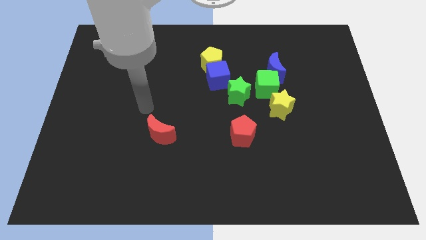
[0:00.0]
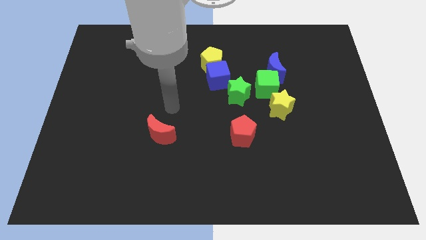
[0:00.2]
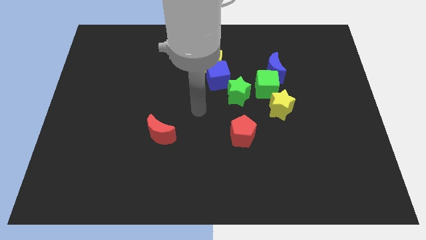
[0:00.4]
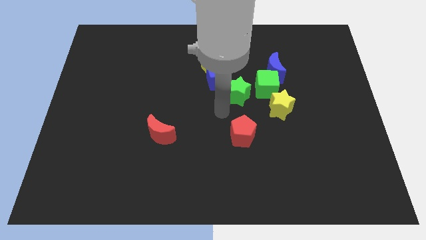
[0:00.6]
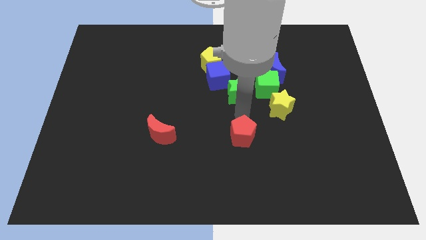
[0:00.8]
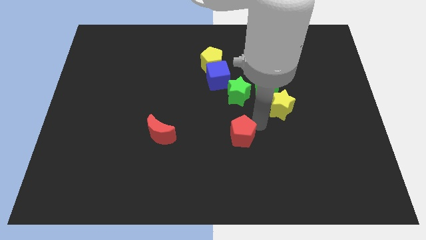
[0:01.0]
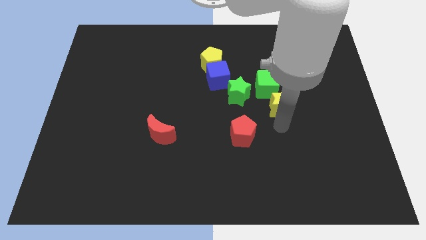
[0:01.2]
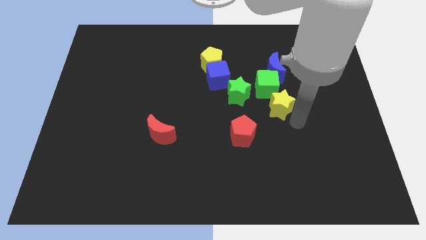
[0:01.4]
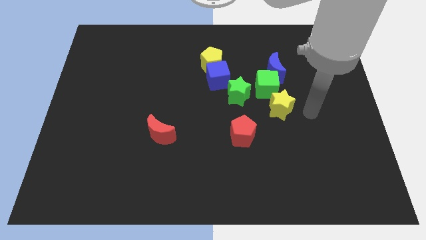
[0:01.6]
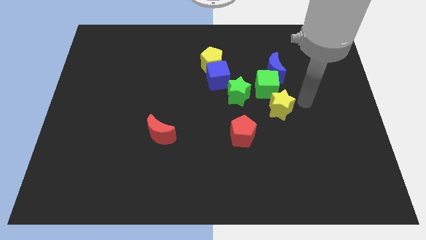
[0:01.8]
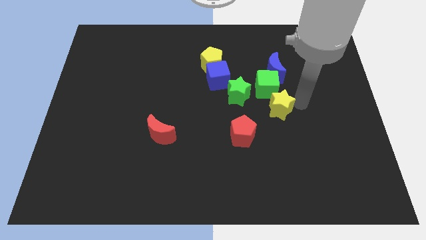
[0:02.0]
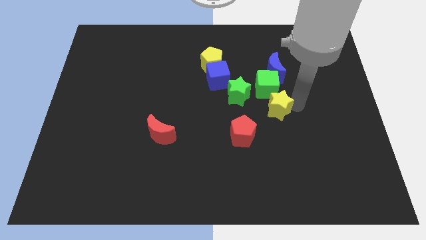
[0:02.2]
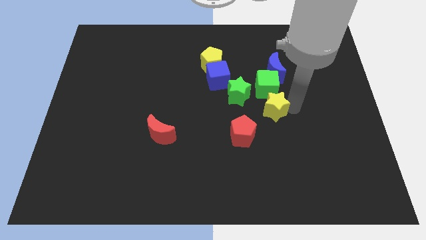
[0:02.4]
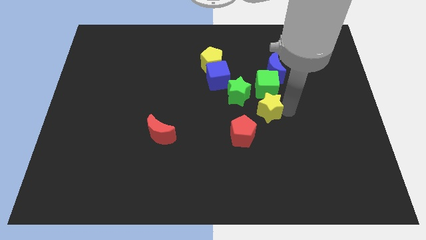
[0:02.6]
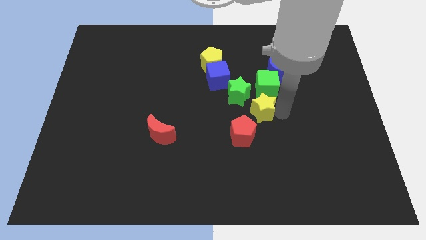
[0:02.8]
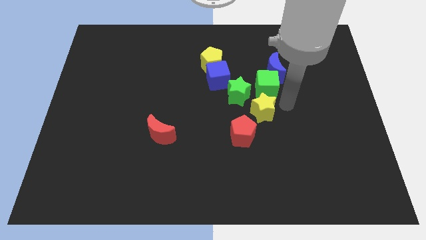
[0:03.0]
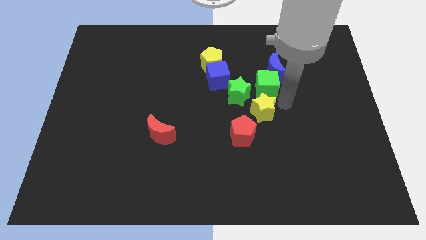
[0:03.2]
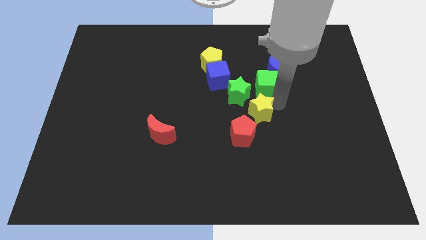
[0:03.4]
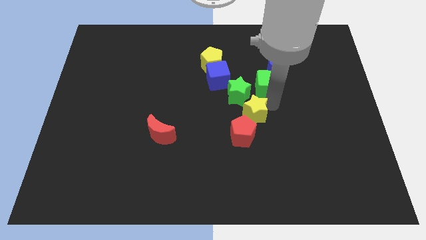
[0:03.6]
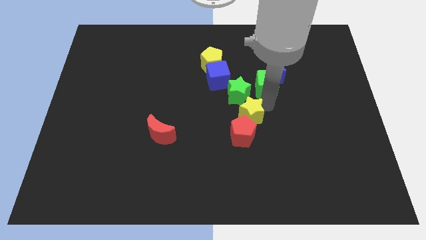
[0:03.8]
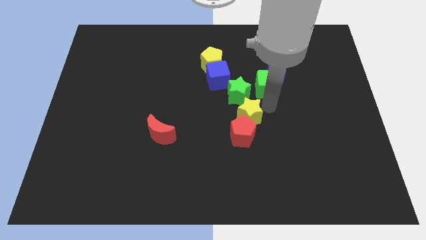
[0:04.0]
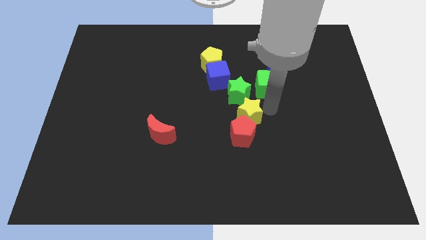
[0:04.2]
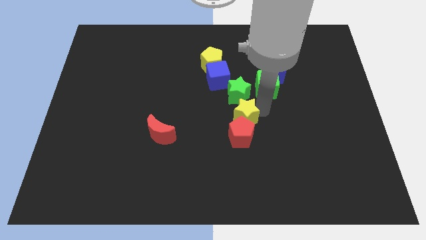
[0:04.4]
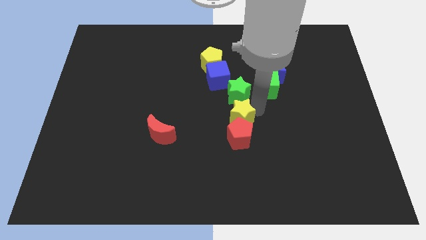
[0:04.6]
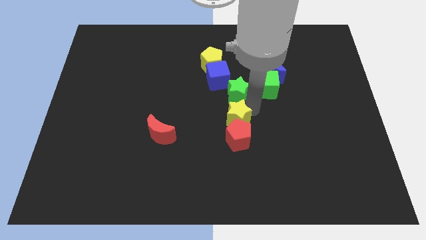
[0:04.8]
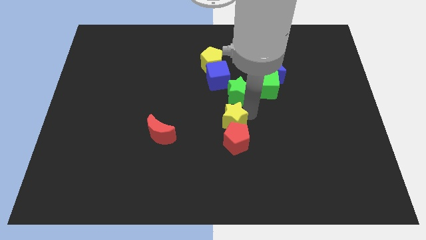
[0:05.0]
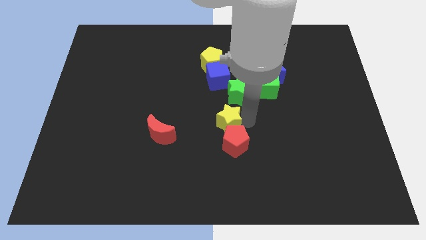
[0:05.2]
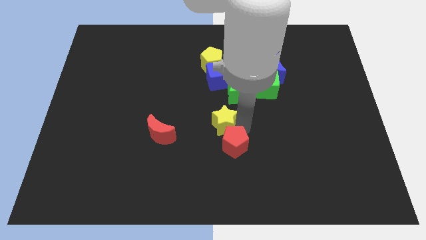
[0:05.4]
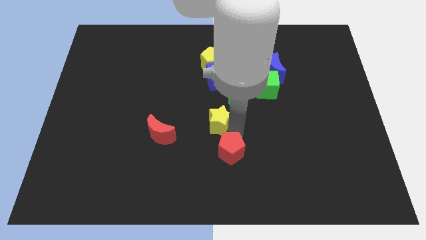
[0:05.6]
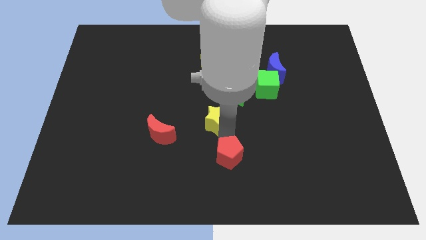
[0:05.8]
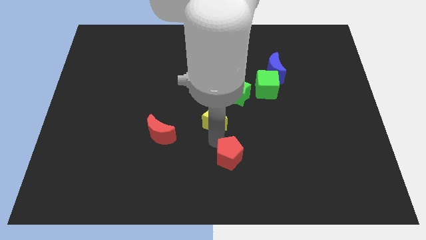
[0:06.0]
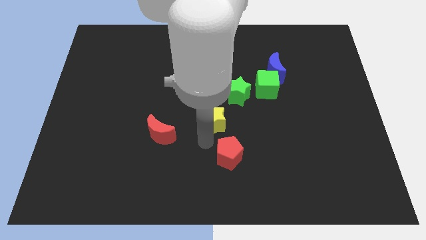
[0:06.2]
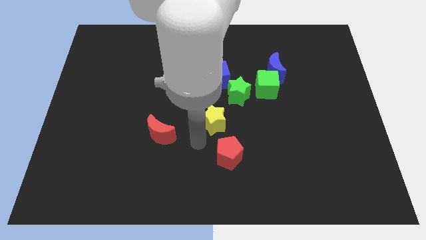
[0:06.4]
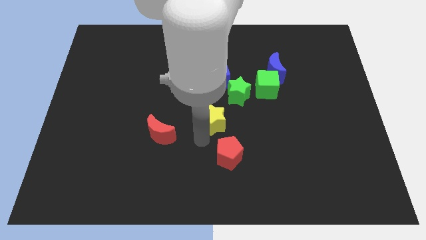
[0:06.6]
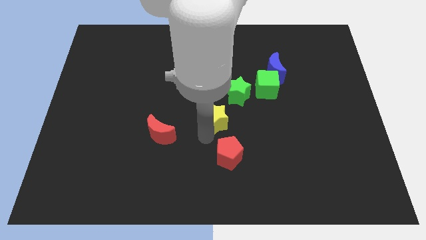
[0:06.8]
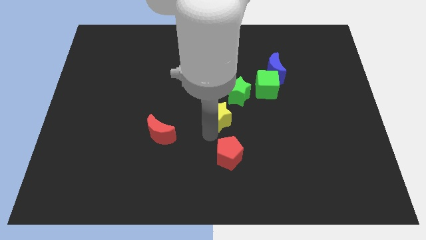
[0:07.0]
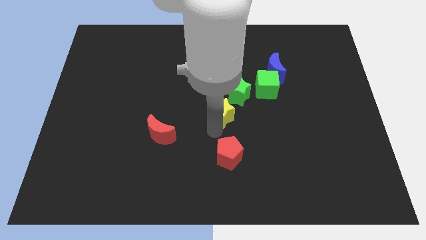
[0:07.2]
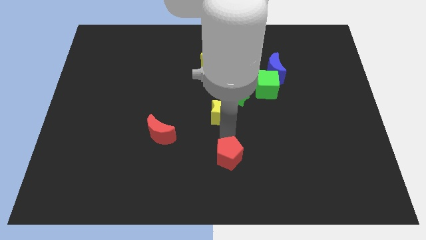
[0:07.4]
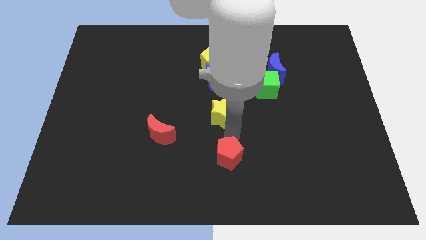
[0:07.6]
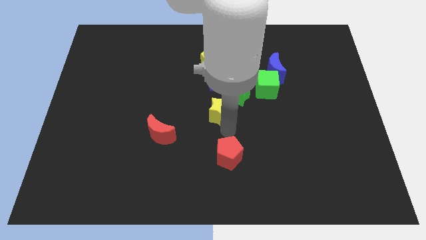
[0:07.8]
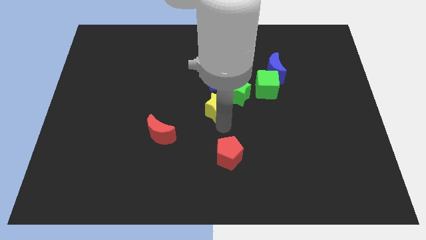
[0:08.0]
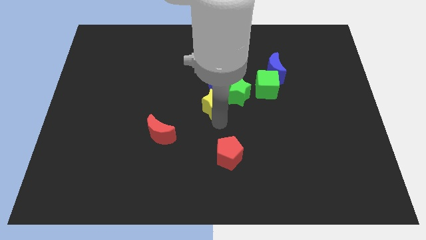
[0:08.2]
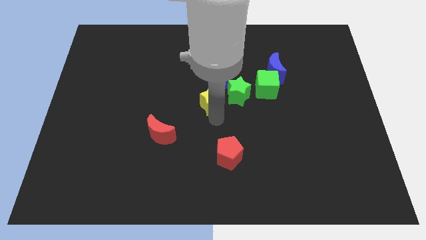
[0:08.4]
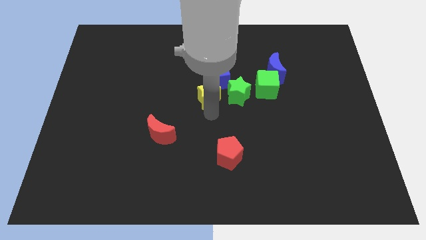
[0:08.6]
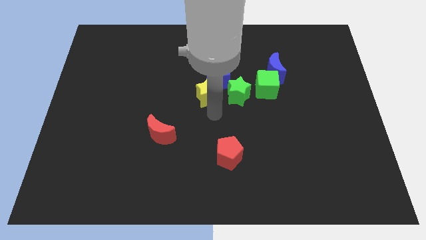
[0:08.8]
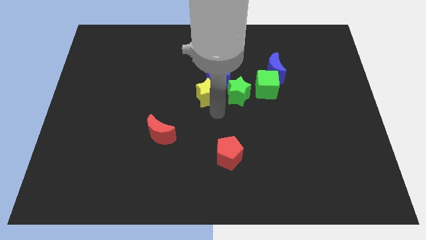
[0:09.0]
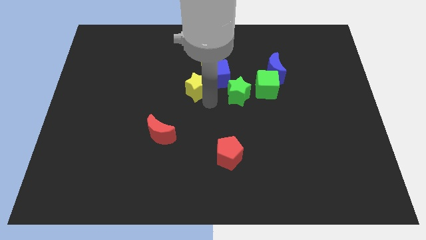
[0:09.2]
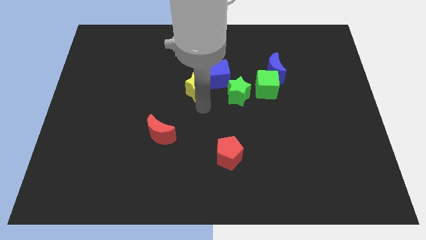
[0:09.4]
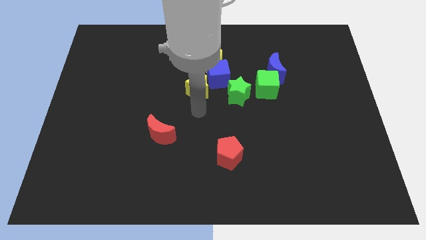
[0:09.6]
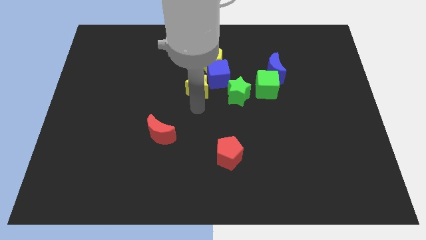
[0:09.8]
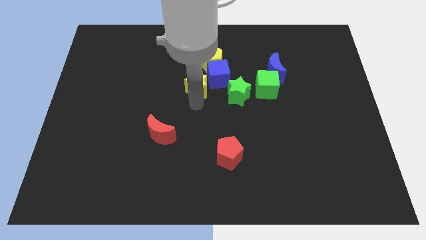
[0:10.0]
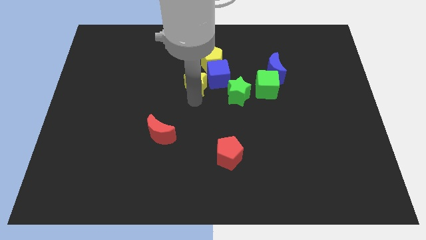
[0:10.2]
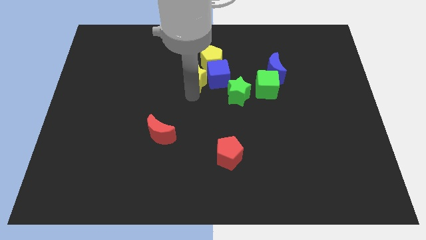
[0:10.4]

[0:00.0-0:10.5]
put the yellow star to the top left side of the blue cube
